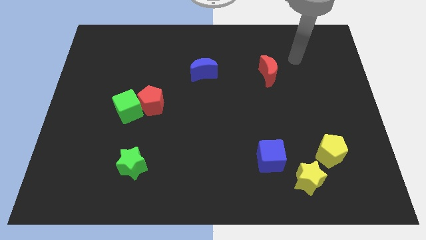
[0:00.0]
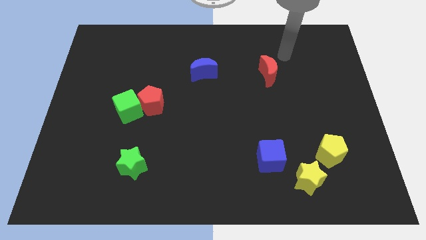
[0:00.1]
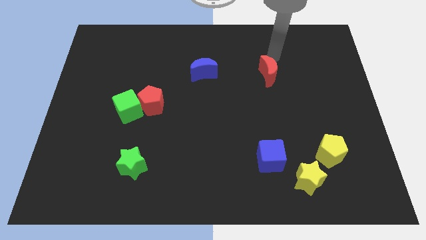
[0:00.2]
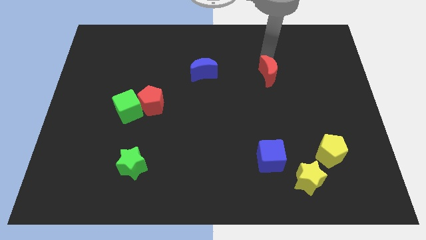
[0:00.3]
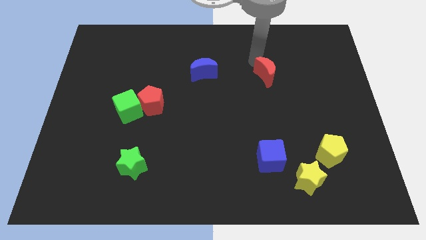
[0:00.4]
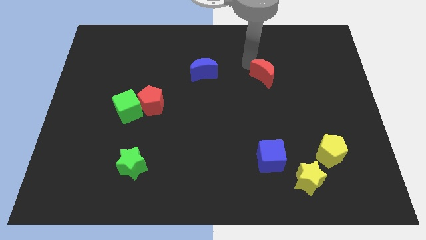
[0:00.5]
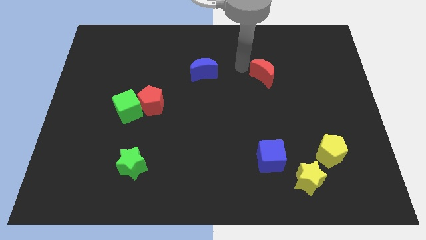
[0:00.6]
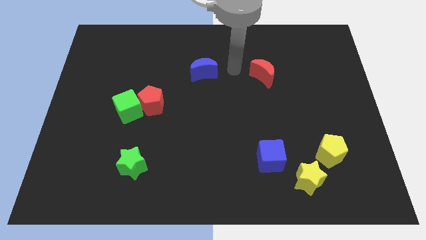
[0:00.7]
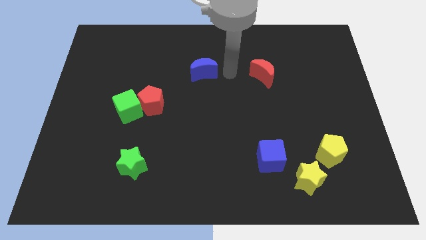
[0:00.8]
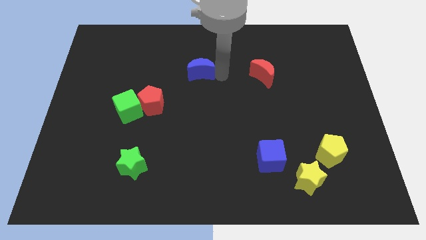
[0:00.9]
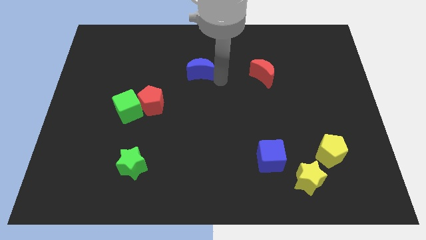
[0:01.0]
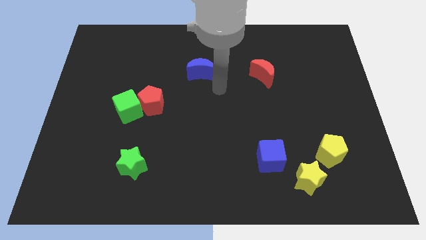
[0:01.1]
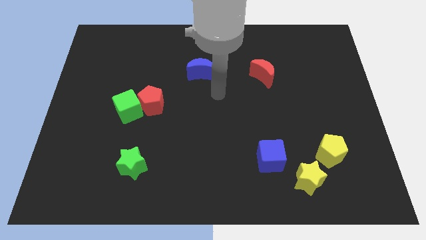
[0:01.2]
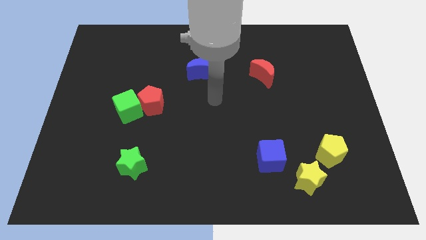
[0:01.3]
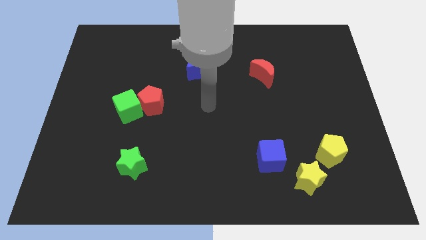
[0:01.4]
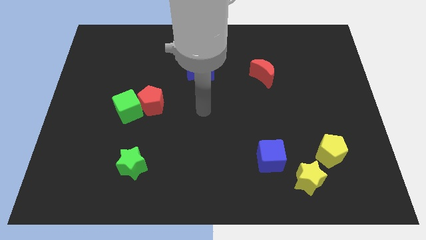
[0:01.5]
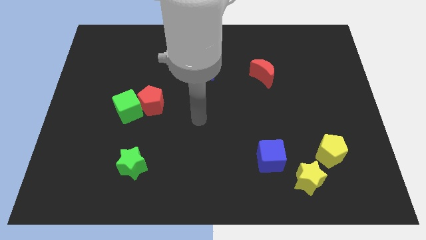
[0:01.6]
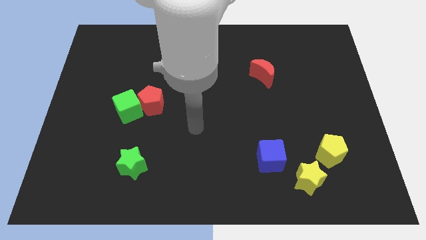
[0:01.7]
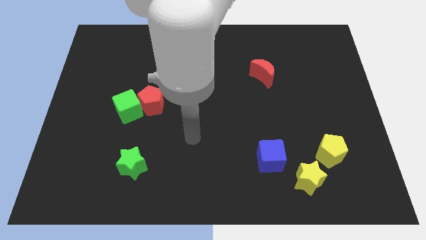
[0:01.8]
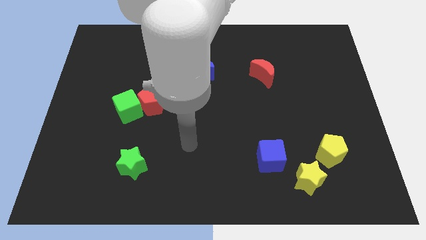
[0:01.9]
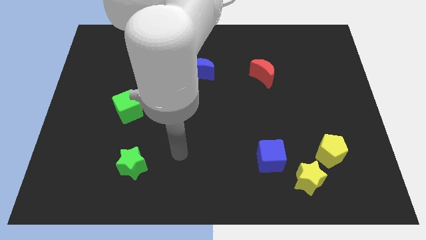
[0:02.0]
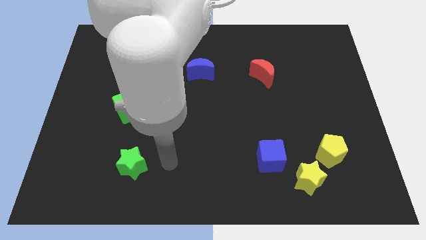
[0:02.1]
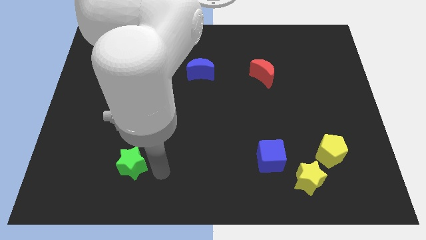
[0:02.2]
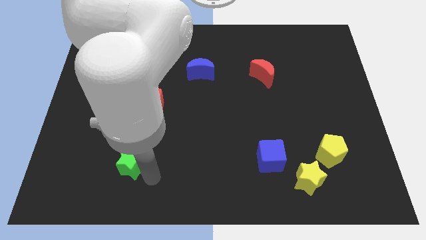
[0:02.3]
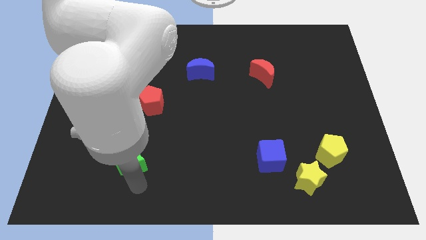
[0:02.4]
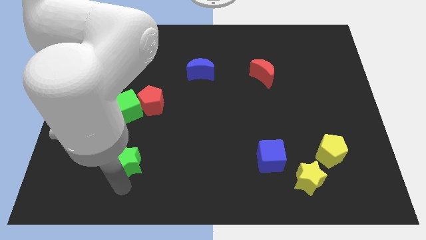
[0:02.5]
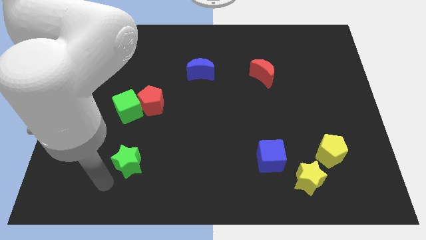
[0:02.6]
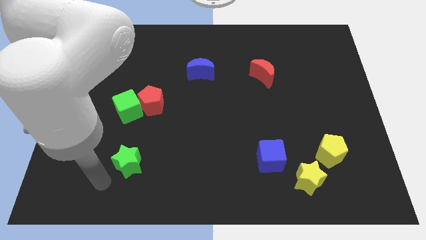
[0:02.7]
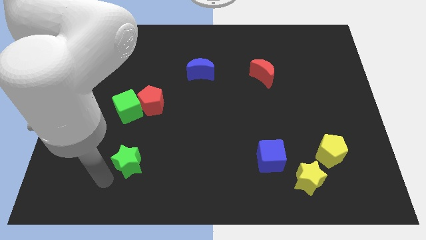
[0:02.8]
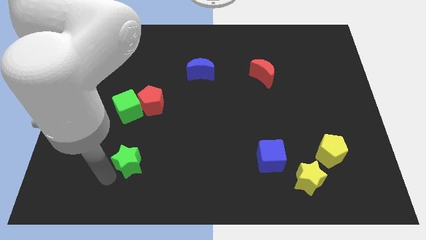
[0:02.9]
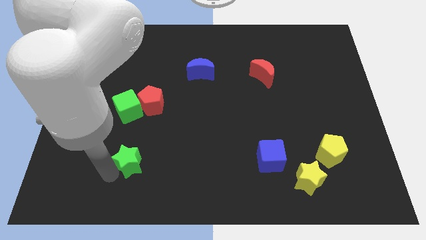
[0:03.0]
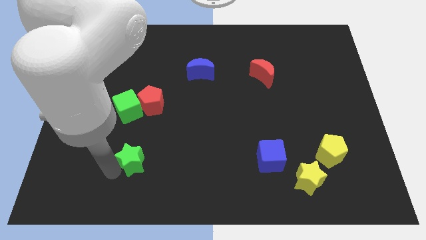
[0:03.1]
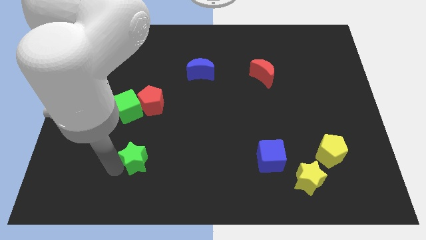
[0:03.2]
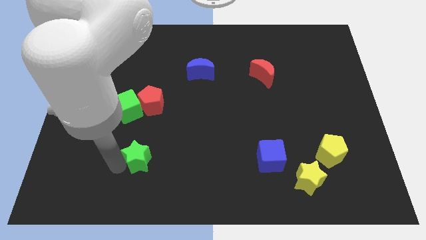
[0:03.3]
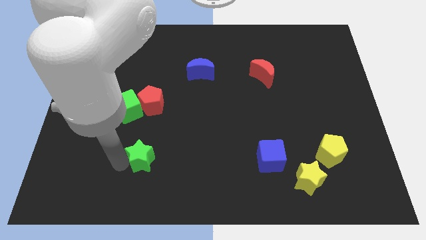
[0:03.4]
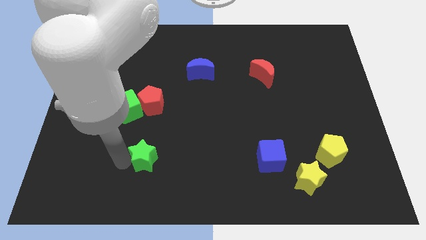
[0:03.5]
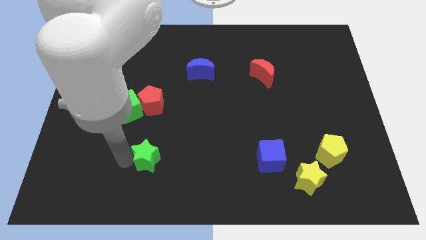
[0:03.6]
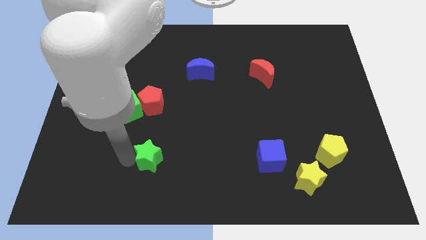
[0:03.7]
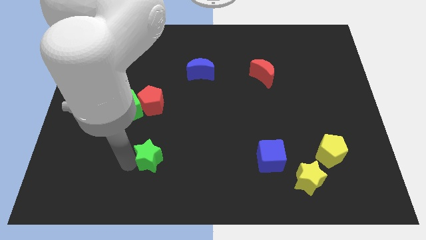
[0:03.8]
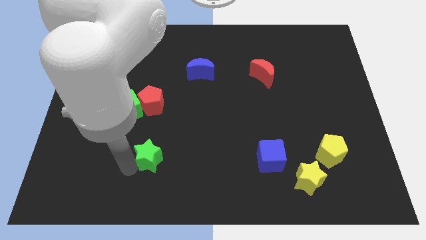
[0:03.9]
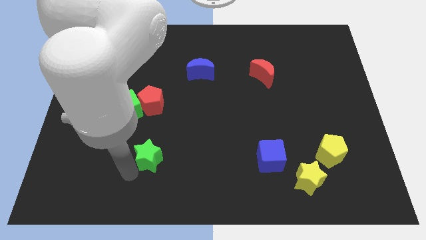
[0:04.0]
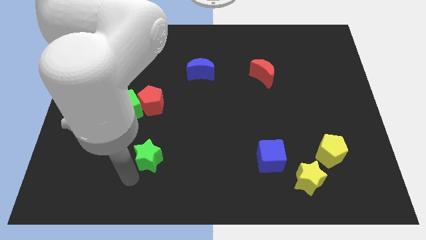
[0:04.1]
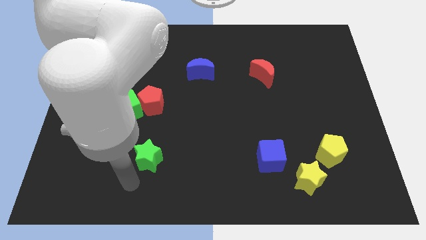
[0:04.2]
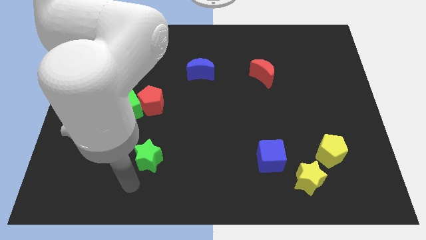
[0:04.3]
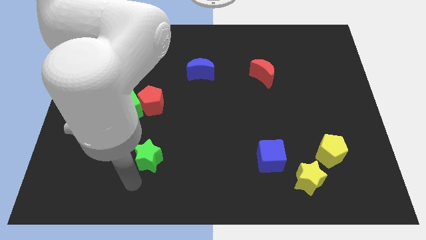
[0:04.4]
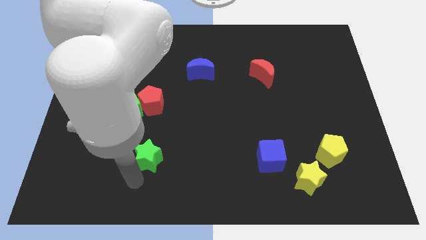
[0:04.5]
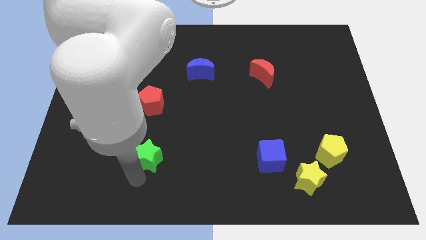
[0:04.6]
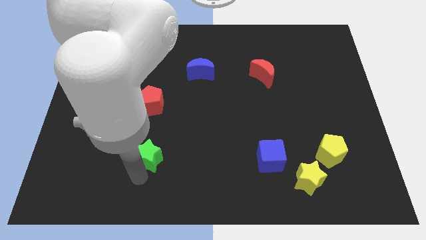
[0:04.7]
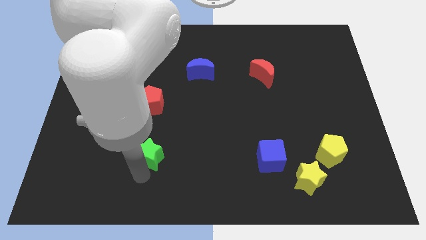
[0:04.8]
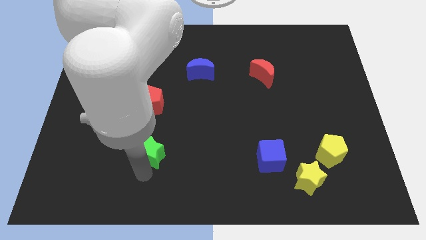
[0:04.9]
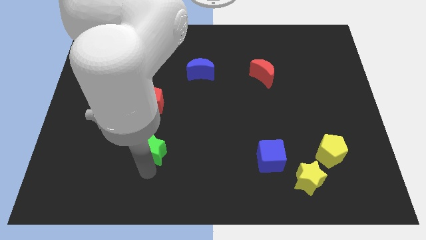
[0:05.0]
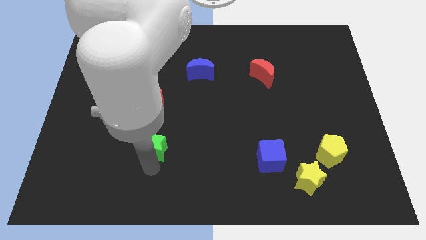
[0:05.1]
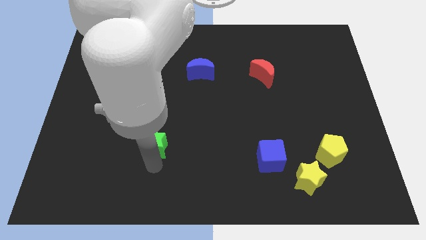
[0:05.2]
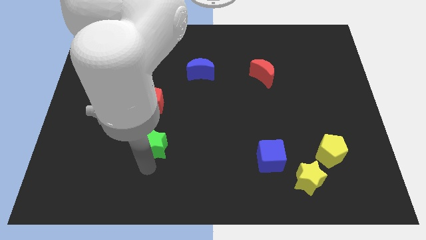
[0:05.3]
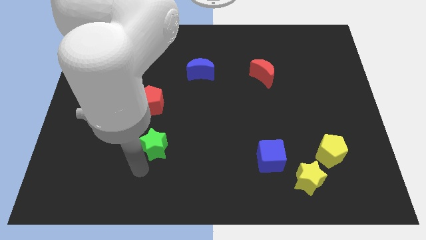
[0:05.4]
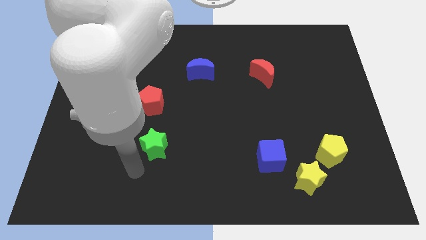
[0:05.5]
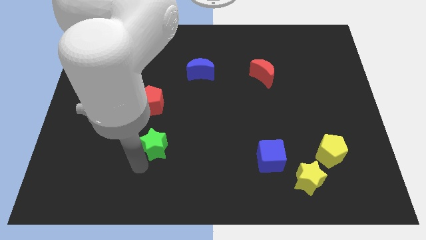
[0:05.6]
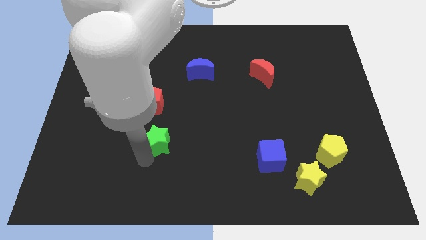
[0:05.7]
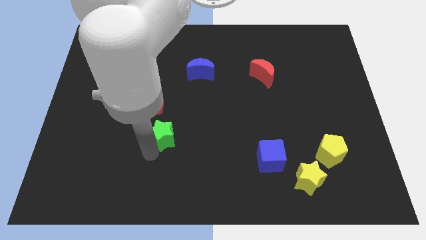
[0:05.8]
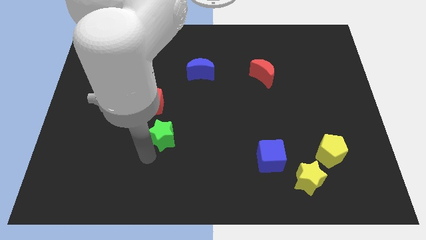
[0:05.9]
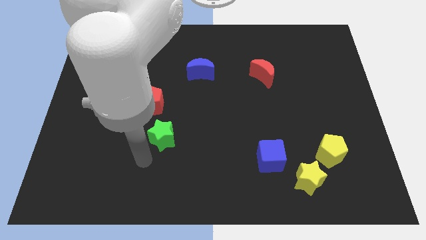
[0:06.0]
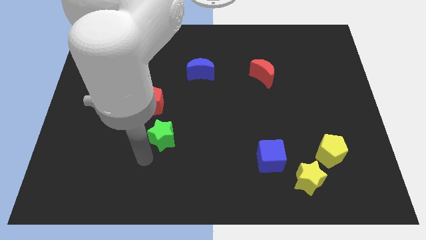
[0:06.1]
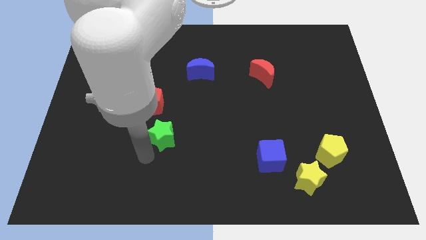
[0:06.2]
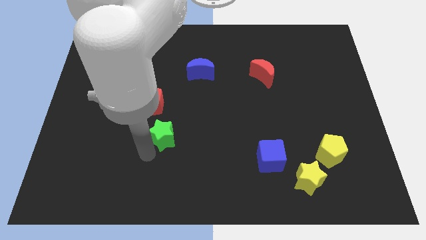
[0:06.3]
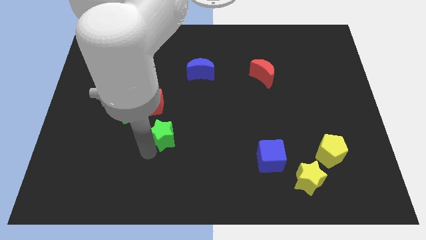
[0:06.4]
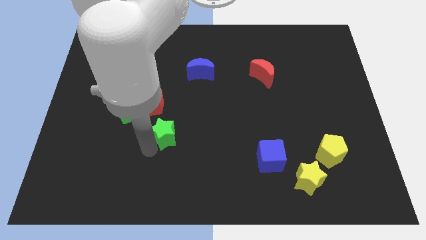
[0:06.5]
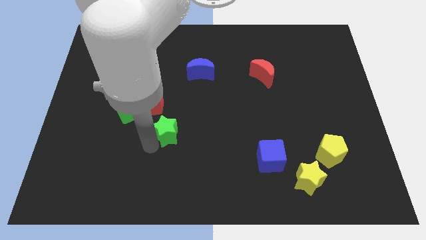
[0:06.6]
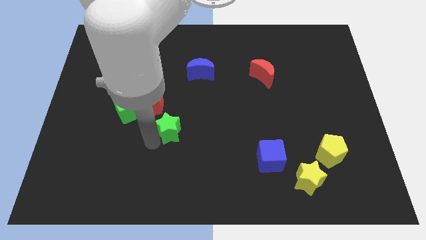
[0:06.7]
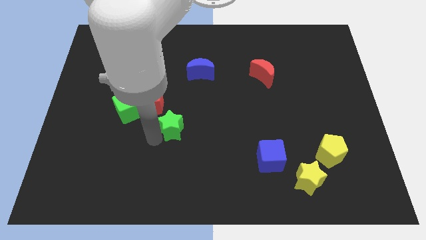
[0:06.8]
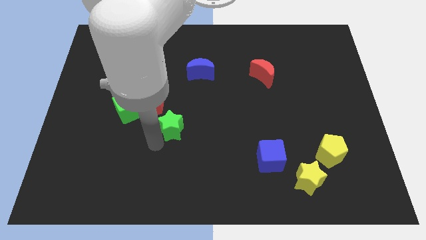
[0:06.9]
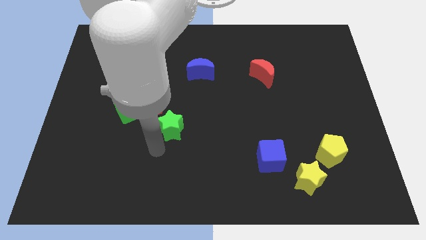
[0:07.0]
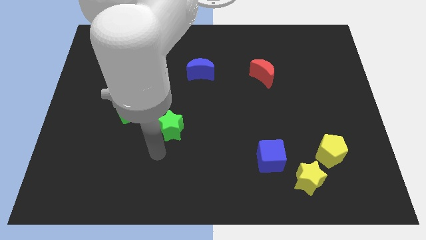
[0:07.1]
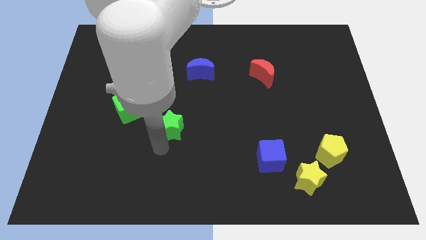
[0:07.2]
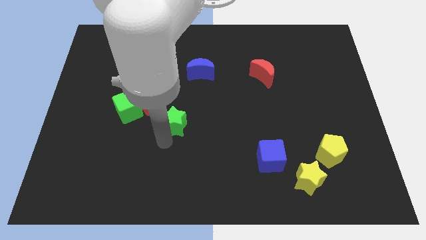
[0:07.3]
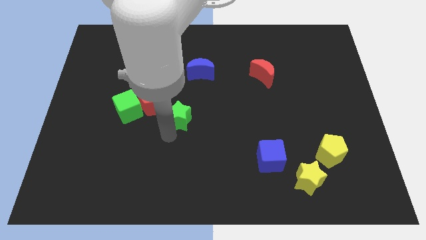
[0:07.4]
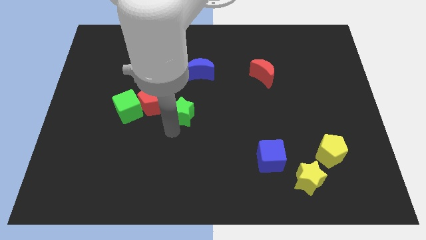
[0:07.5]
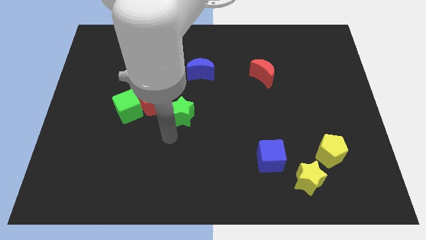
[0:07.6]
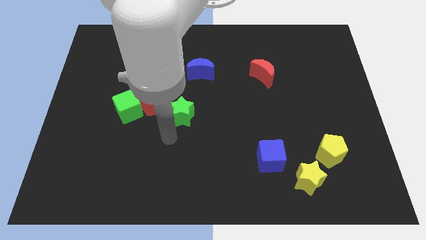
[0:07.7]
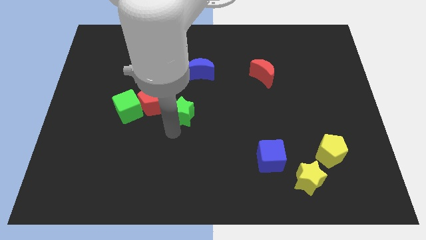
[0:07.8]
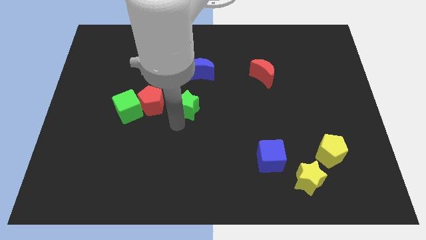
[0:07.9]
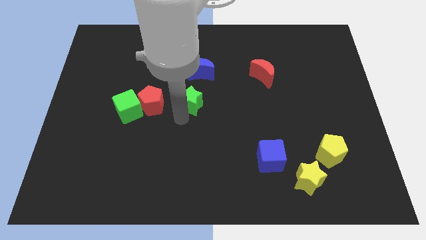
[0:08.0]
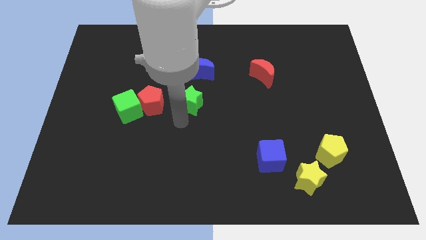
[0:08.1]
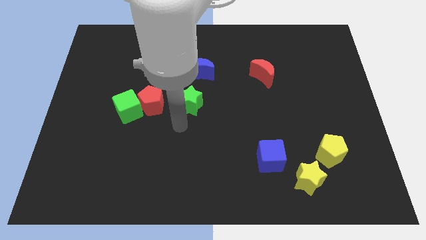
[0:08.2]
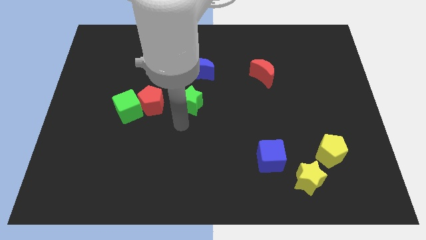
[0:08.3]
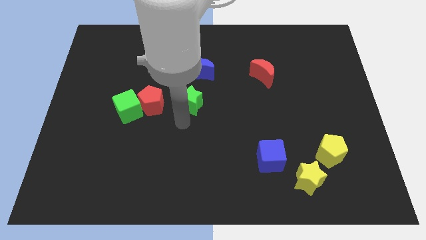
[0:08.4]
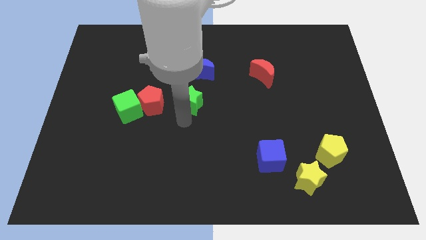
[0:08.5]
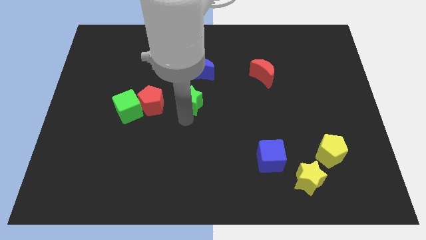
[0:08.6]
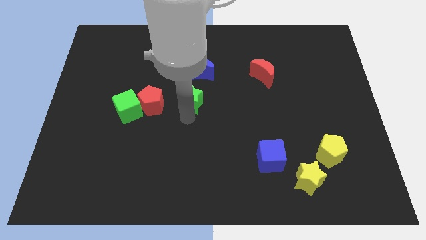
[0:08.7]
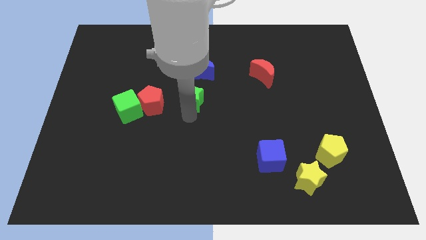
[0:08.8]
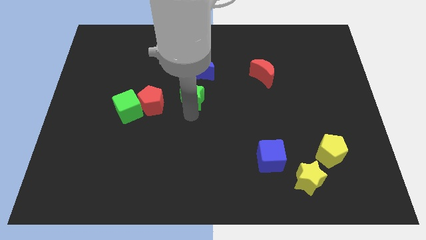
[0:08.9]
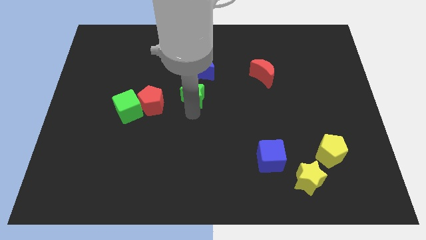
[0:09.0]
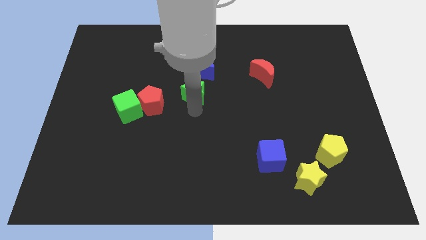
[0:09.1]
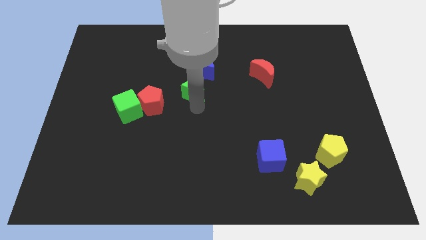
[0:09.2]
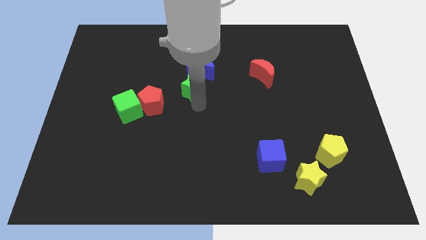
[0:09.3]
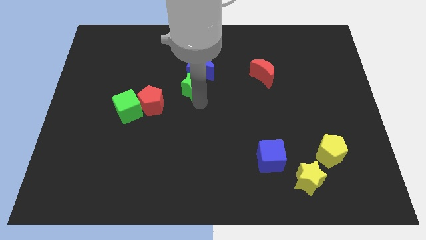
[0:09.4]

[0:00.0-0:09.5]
put the green star to the blue moon
